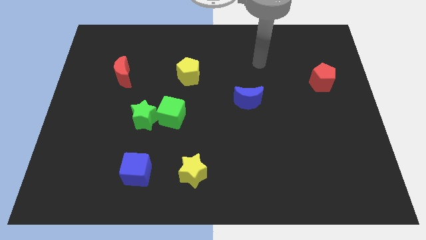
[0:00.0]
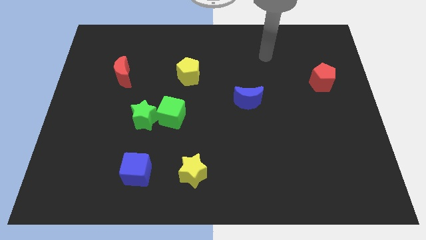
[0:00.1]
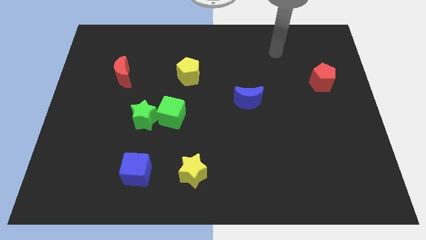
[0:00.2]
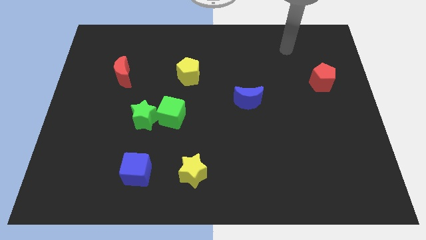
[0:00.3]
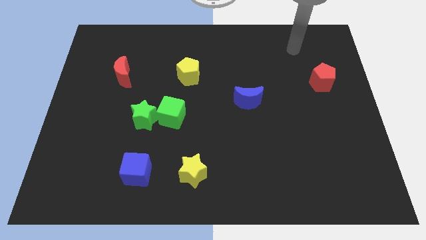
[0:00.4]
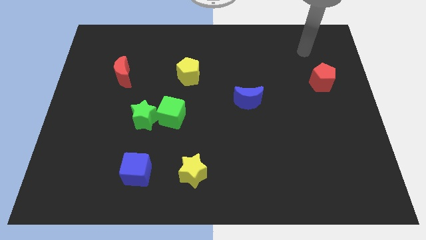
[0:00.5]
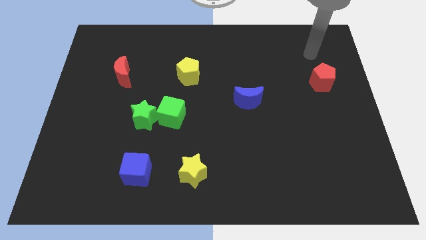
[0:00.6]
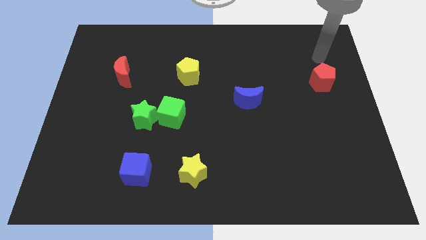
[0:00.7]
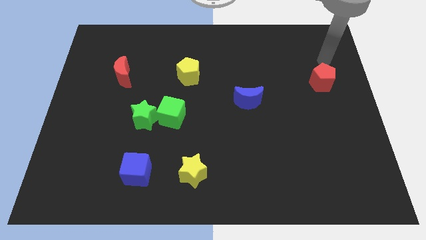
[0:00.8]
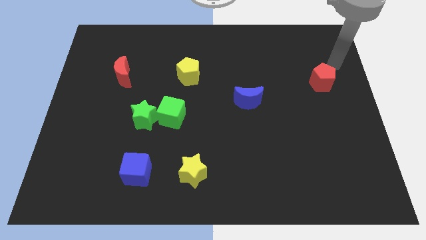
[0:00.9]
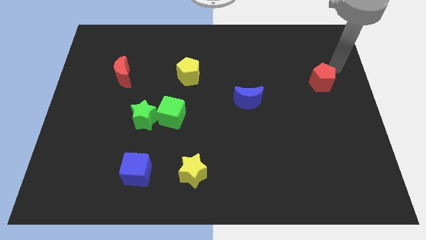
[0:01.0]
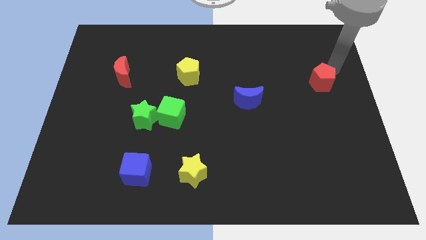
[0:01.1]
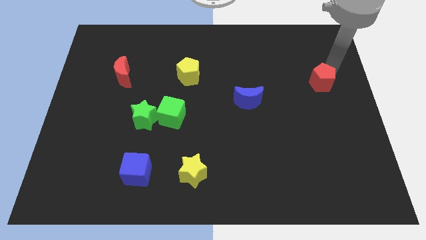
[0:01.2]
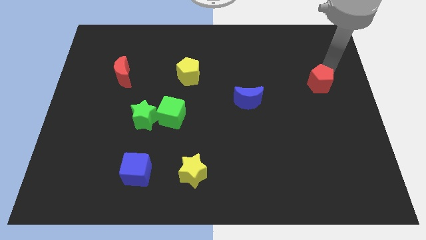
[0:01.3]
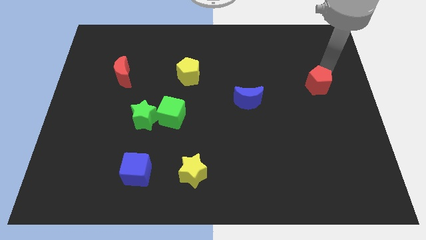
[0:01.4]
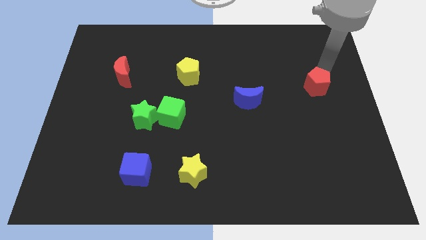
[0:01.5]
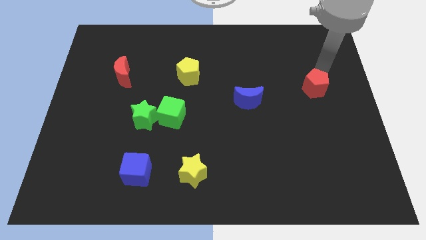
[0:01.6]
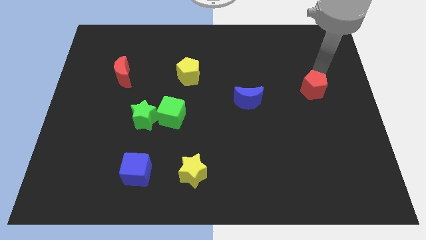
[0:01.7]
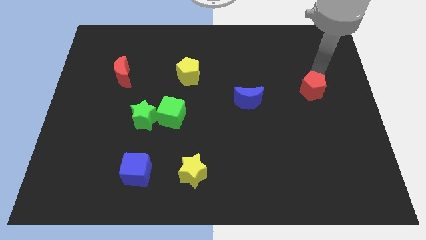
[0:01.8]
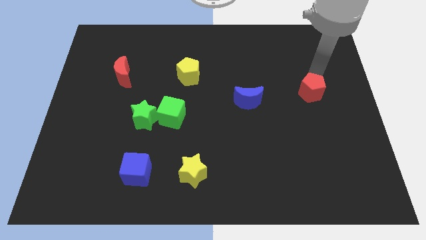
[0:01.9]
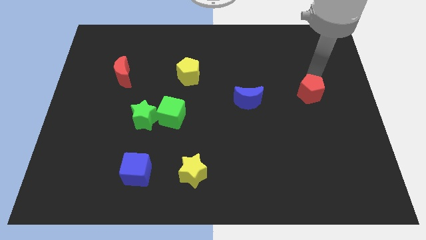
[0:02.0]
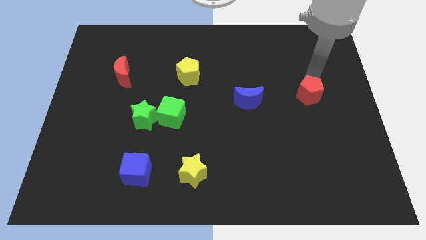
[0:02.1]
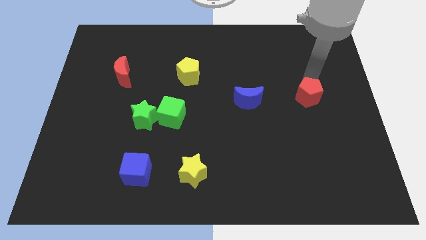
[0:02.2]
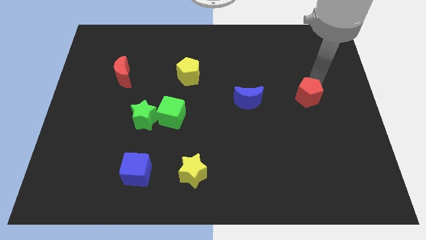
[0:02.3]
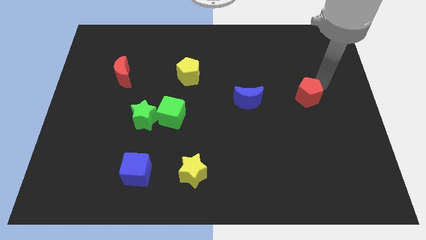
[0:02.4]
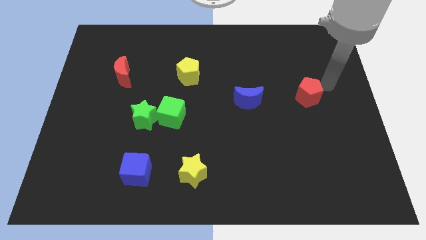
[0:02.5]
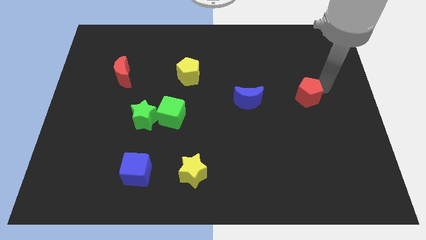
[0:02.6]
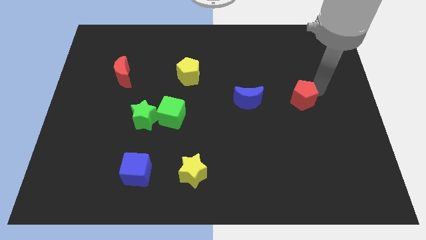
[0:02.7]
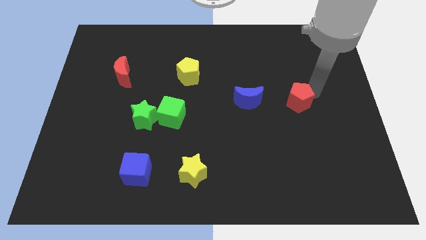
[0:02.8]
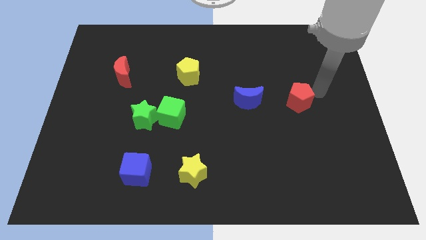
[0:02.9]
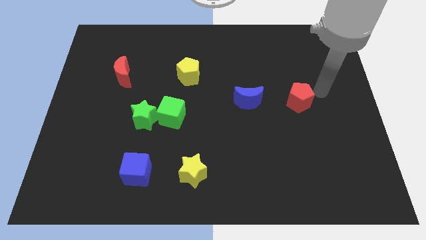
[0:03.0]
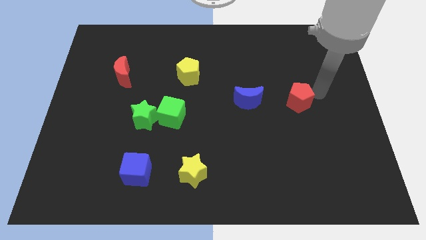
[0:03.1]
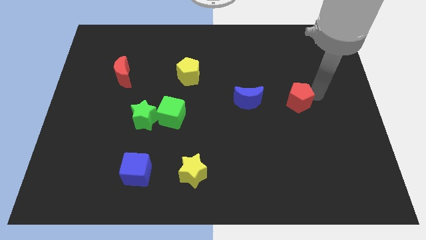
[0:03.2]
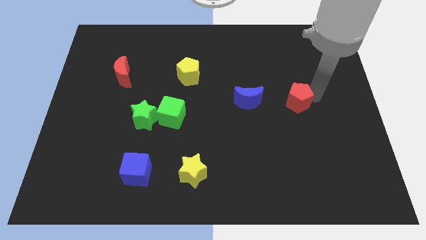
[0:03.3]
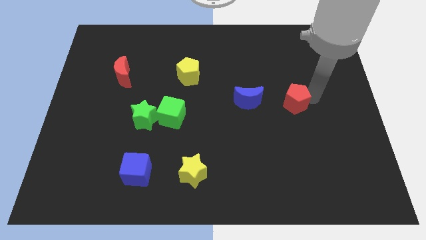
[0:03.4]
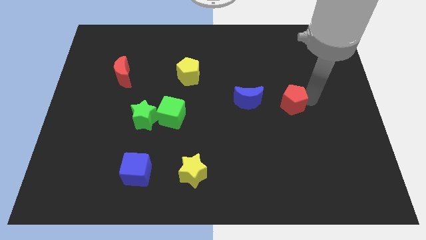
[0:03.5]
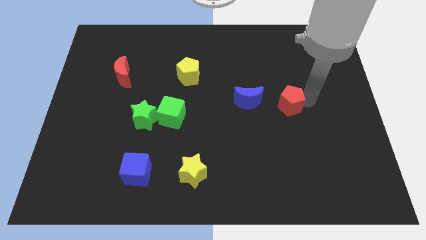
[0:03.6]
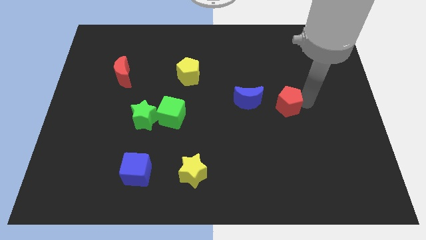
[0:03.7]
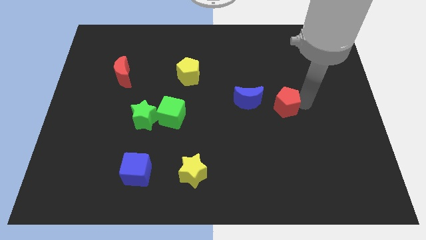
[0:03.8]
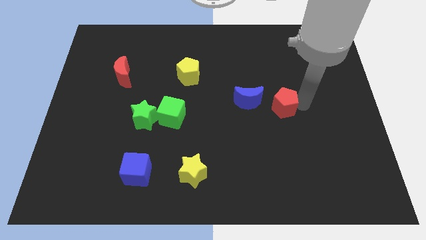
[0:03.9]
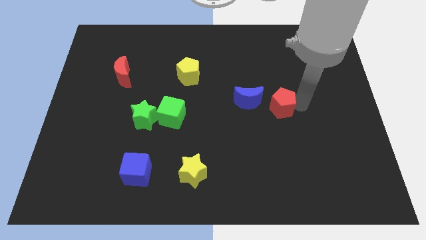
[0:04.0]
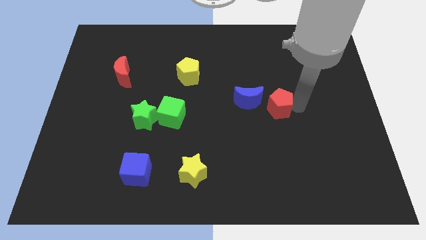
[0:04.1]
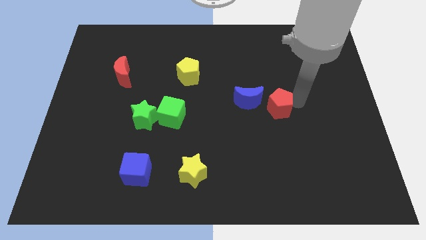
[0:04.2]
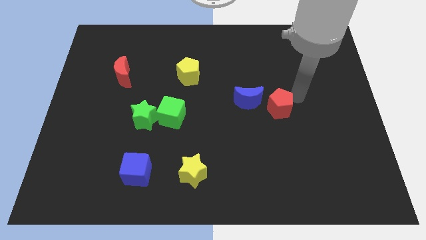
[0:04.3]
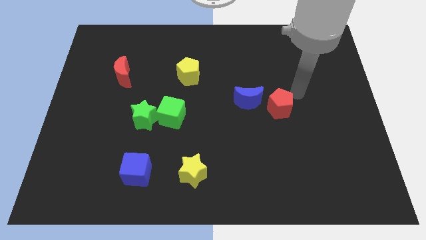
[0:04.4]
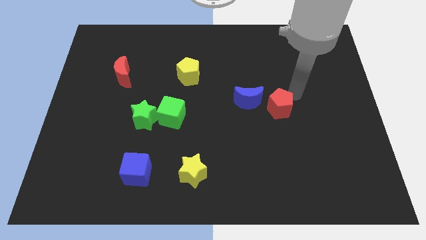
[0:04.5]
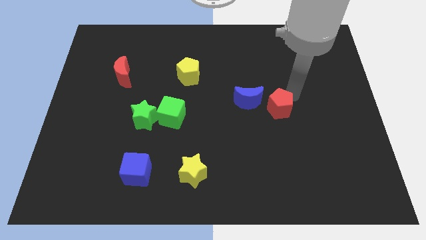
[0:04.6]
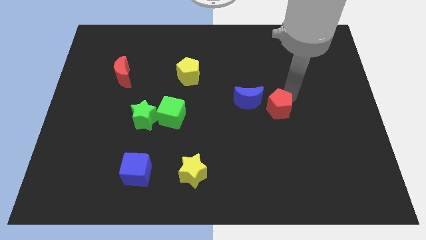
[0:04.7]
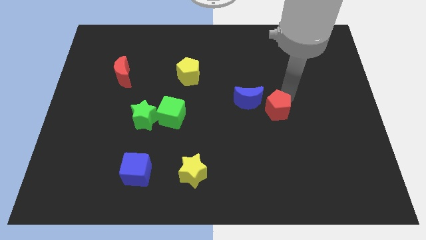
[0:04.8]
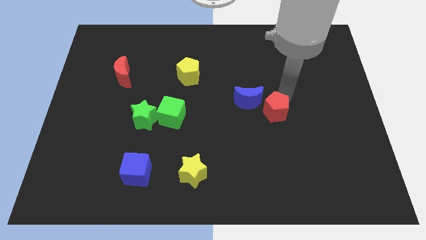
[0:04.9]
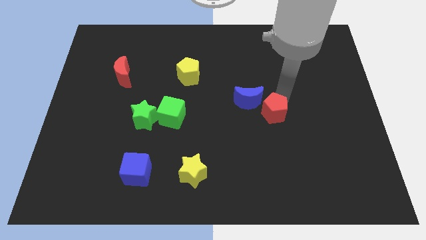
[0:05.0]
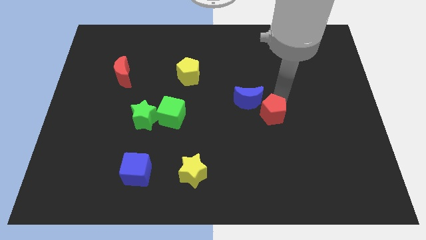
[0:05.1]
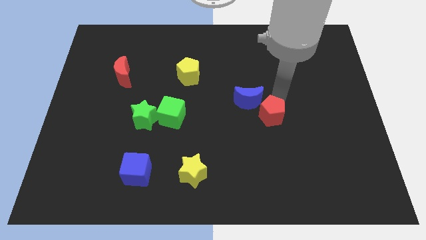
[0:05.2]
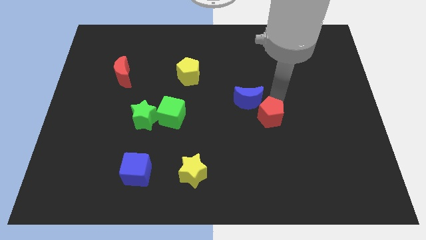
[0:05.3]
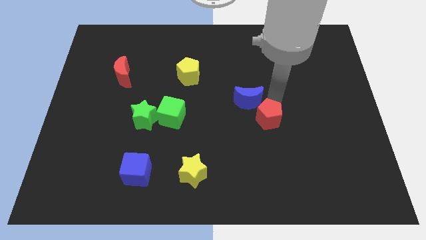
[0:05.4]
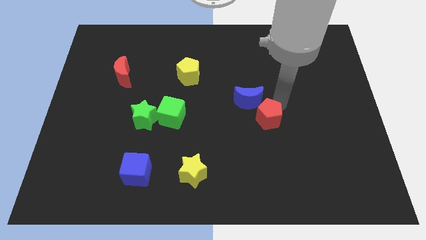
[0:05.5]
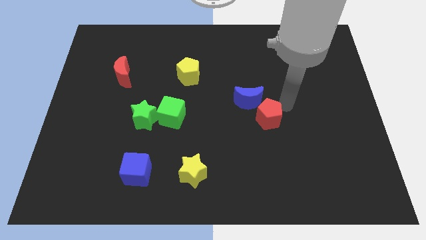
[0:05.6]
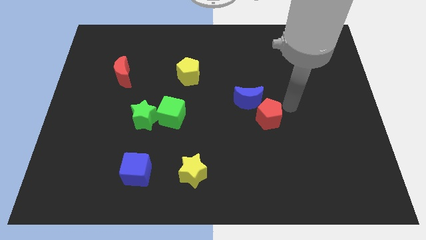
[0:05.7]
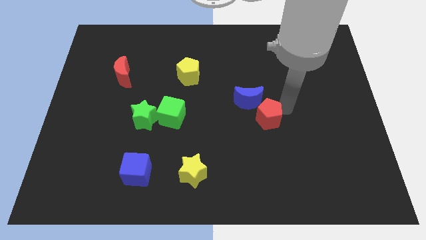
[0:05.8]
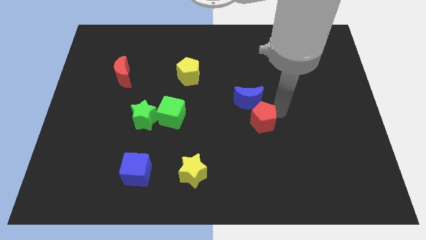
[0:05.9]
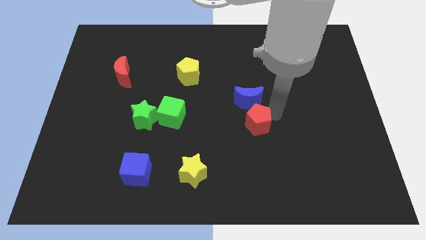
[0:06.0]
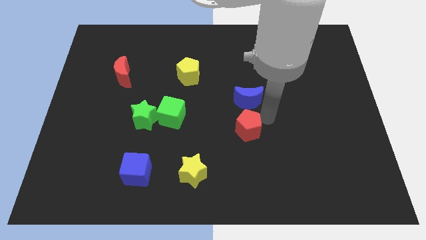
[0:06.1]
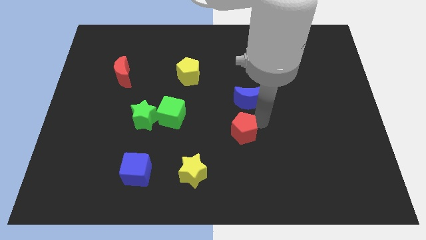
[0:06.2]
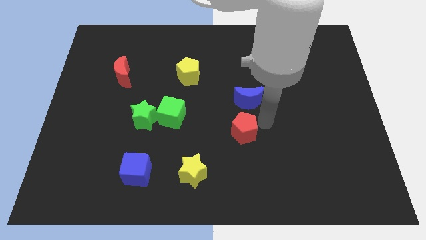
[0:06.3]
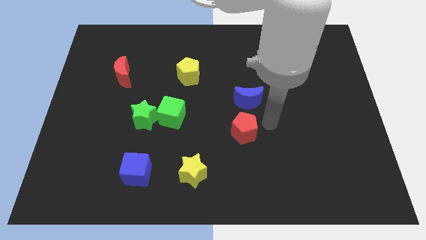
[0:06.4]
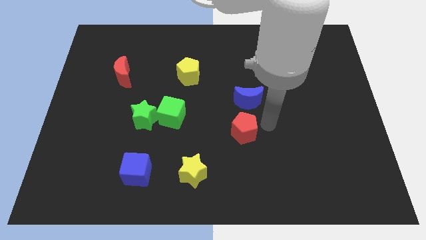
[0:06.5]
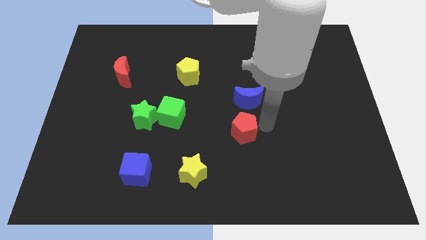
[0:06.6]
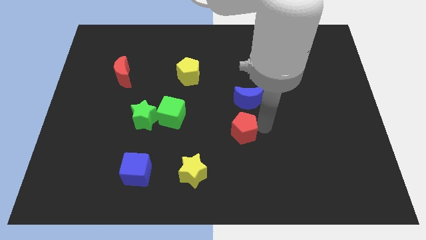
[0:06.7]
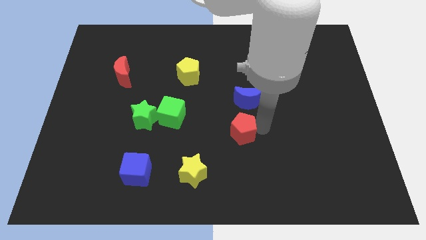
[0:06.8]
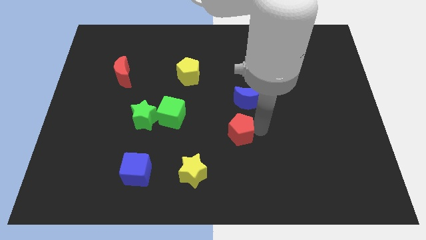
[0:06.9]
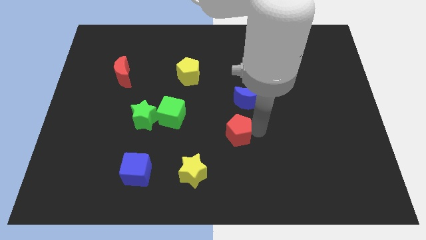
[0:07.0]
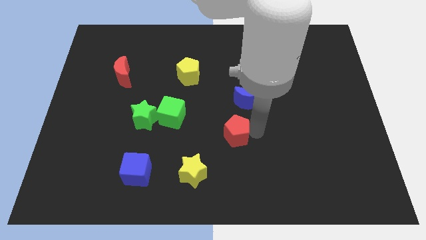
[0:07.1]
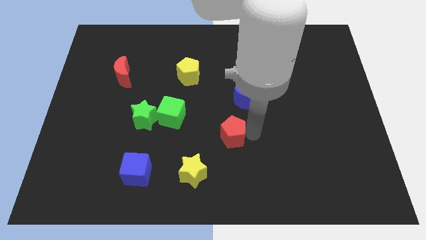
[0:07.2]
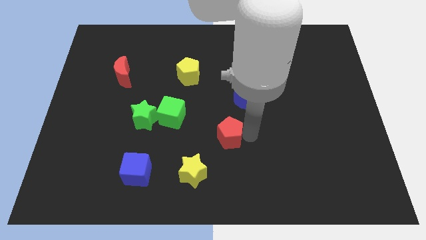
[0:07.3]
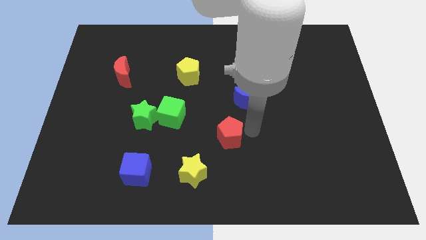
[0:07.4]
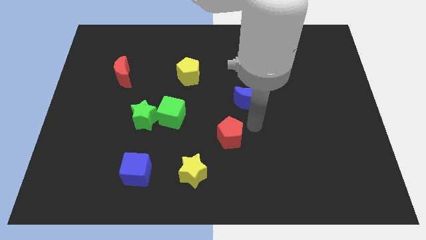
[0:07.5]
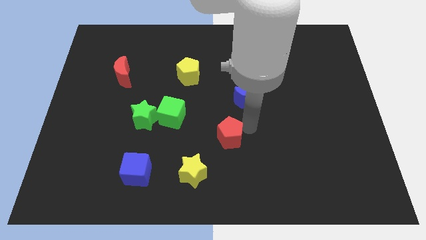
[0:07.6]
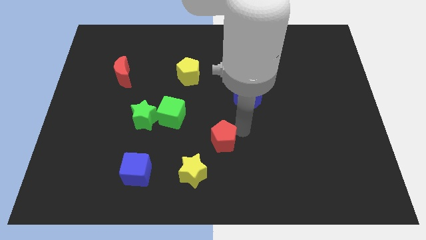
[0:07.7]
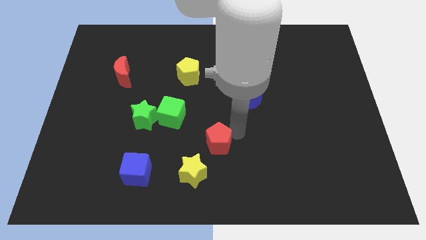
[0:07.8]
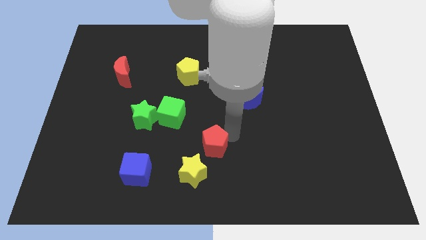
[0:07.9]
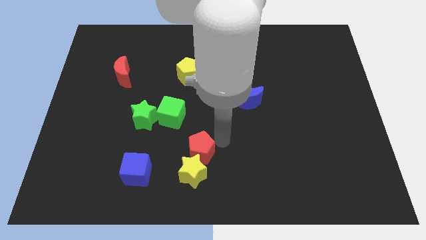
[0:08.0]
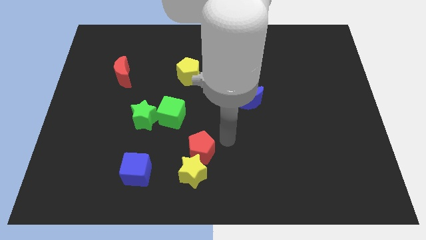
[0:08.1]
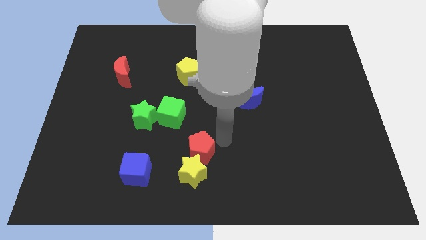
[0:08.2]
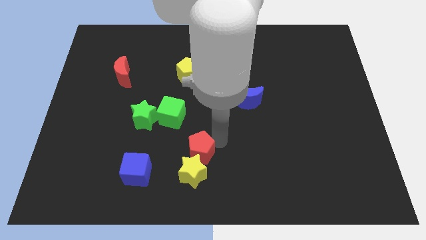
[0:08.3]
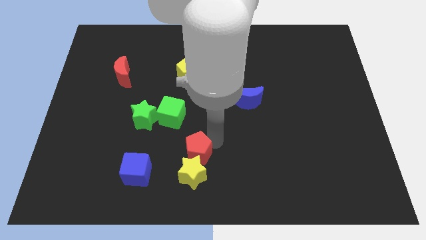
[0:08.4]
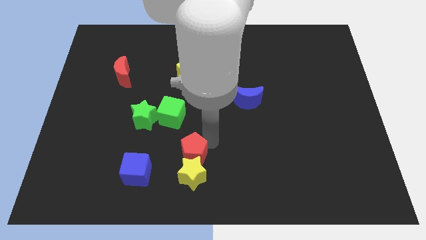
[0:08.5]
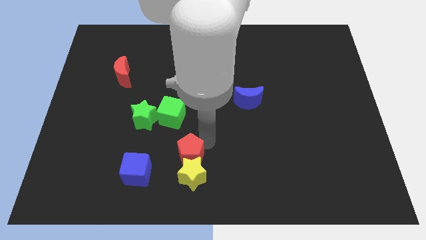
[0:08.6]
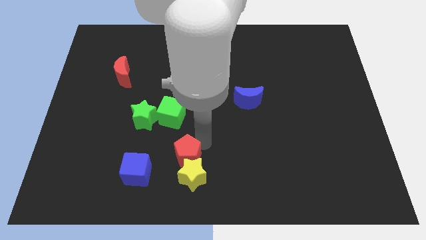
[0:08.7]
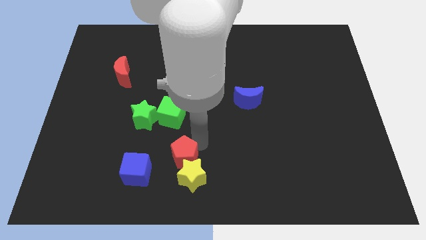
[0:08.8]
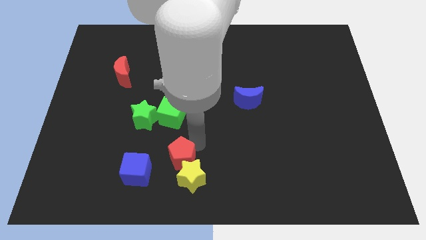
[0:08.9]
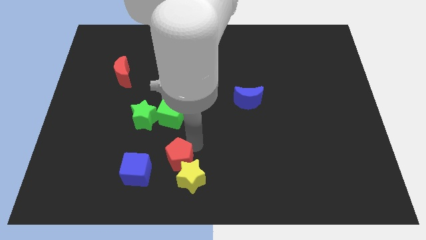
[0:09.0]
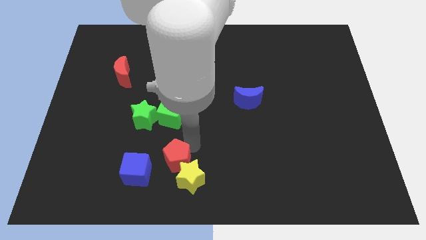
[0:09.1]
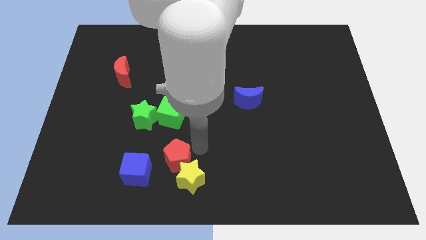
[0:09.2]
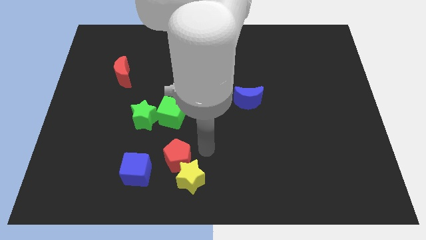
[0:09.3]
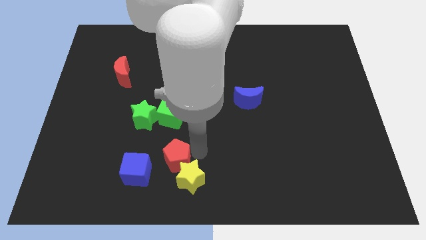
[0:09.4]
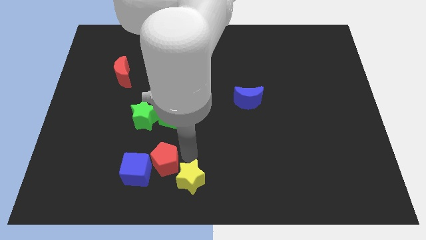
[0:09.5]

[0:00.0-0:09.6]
put the red pentagon towards the blue cube
